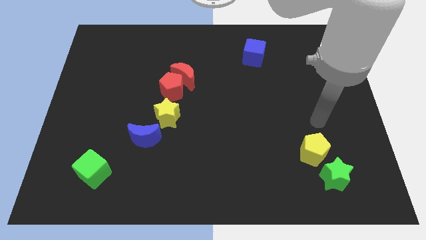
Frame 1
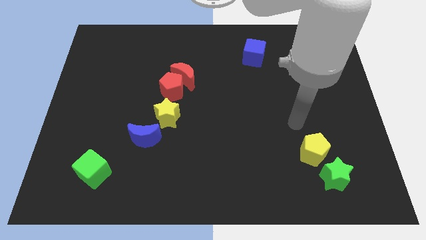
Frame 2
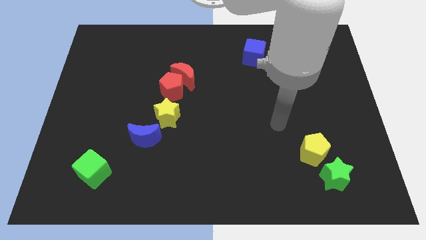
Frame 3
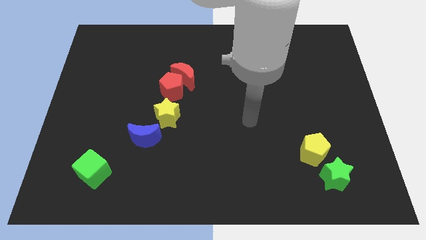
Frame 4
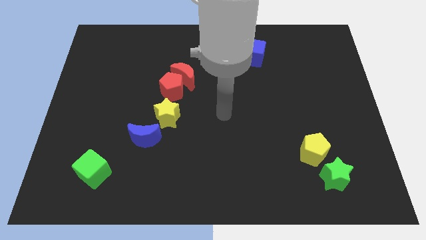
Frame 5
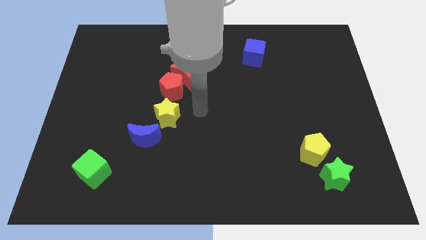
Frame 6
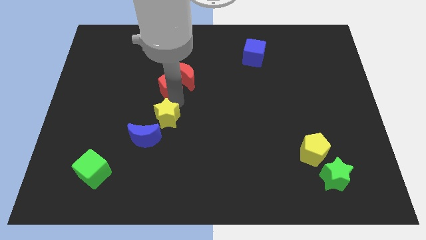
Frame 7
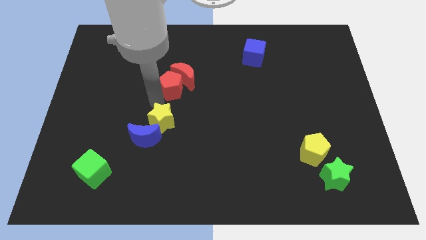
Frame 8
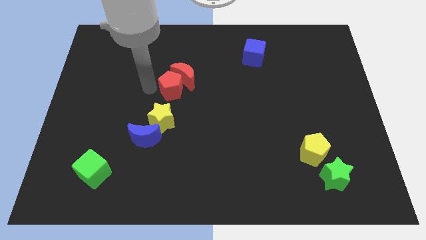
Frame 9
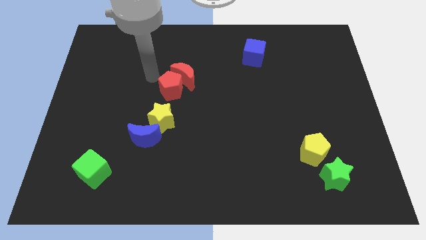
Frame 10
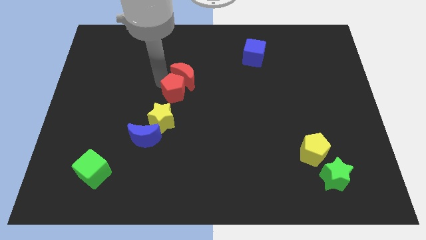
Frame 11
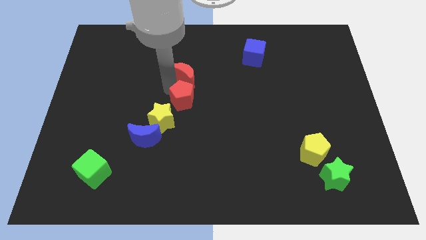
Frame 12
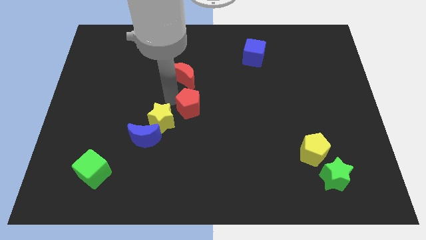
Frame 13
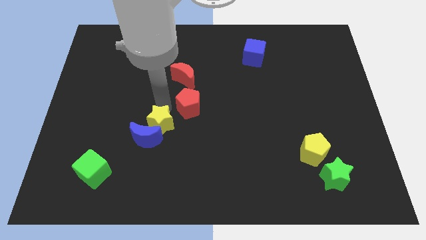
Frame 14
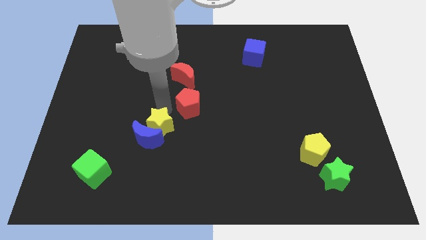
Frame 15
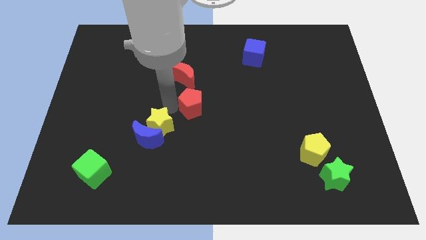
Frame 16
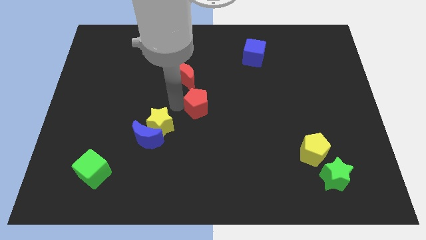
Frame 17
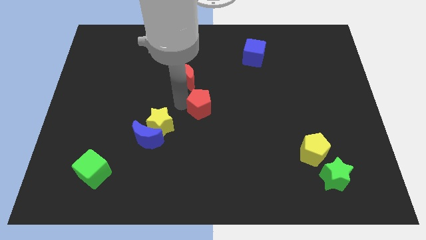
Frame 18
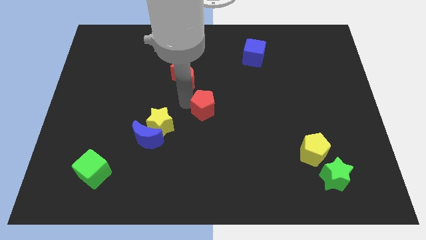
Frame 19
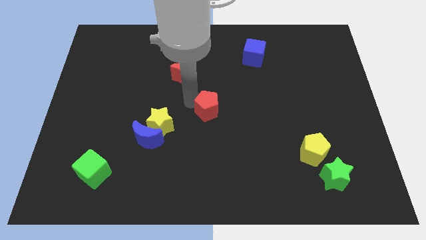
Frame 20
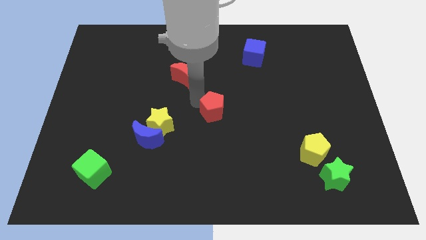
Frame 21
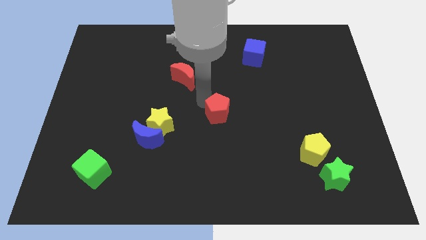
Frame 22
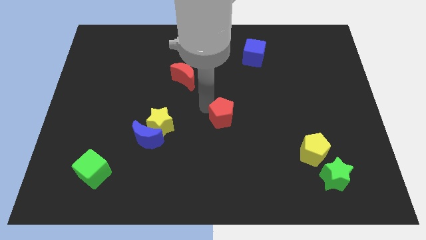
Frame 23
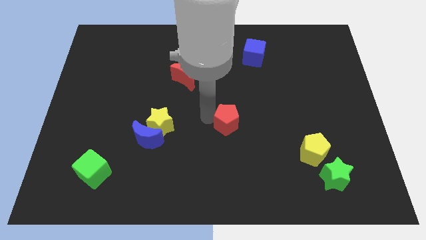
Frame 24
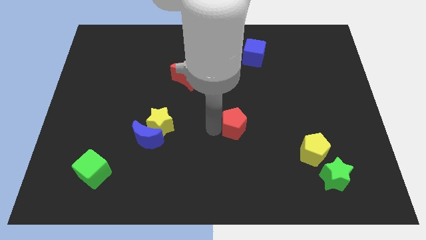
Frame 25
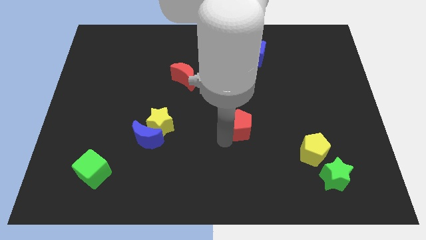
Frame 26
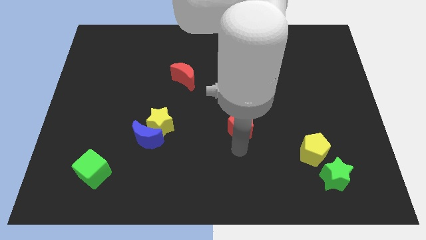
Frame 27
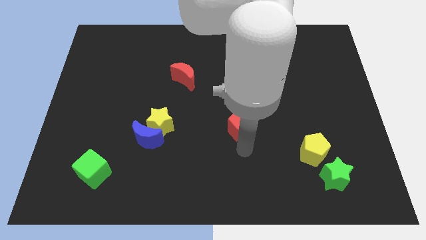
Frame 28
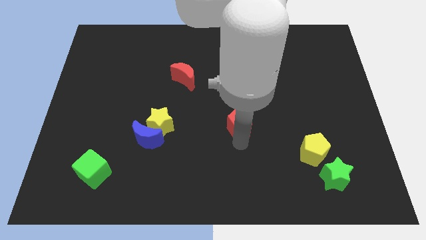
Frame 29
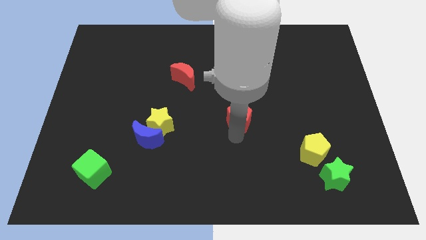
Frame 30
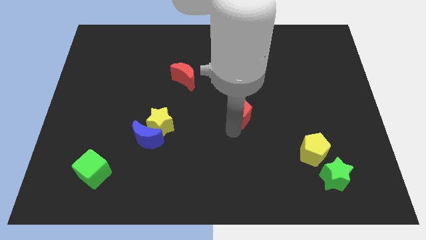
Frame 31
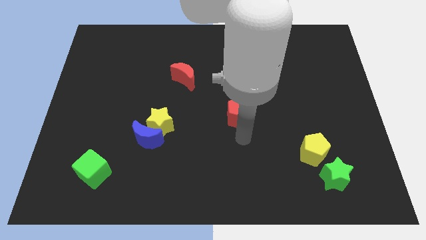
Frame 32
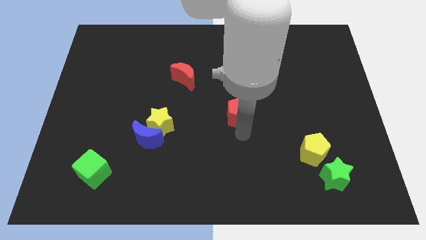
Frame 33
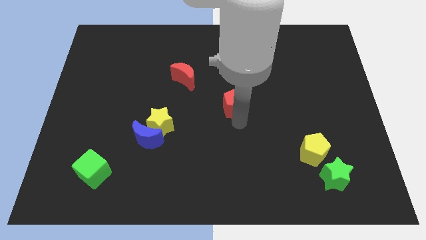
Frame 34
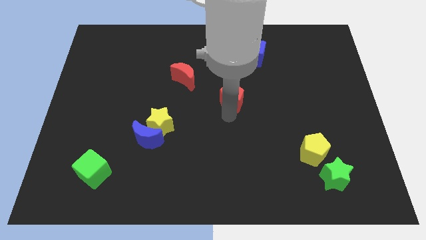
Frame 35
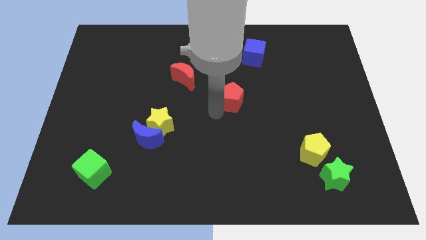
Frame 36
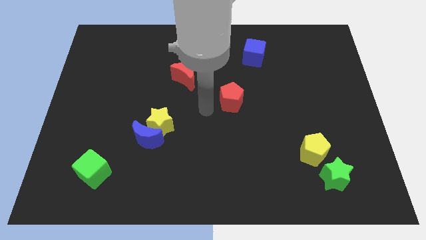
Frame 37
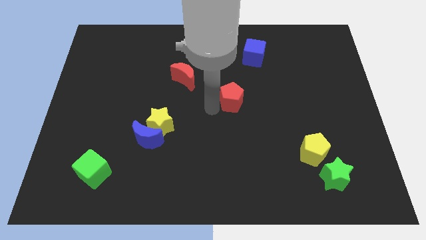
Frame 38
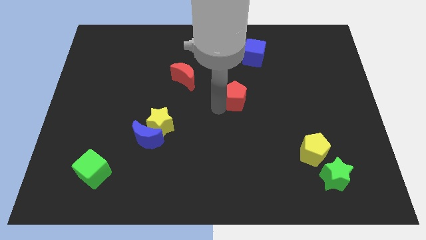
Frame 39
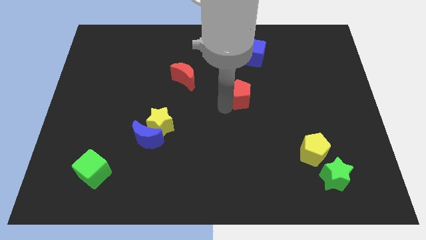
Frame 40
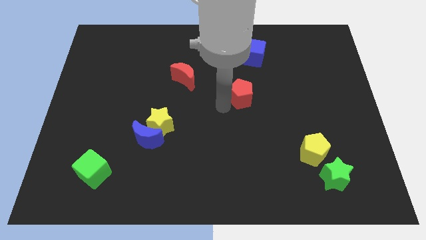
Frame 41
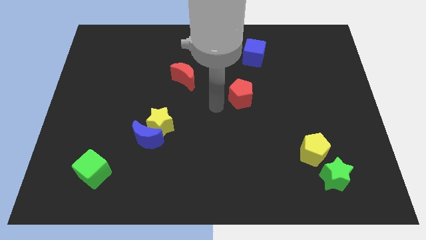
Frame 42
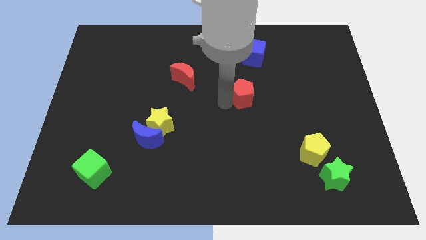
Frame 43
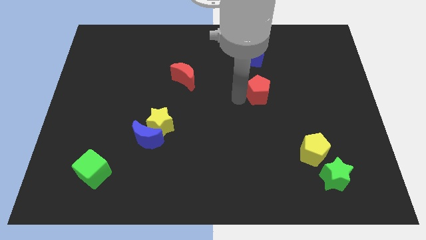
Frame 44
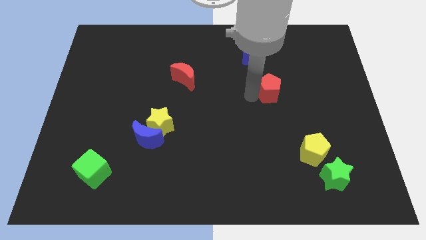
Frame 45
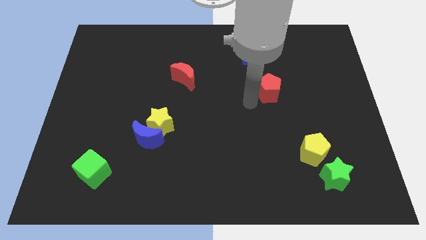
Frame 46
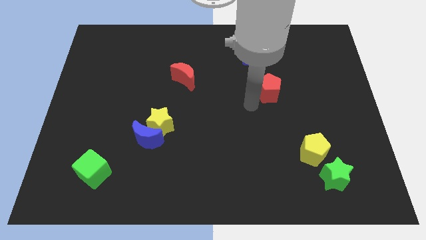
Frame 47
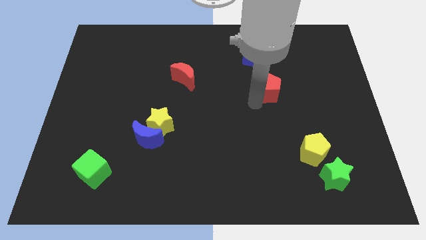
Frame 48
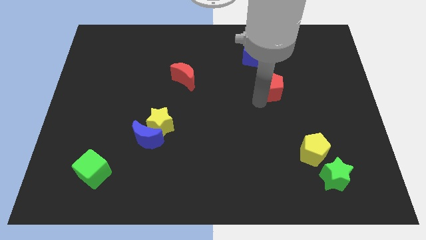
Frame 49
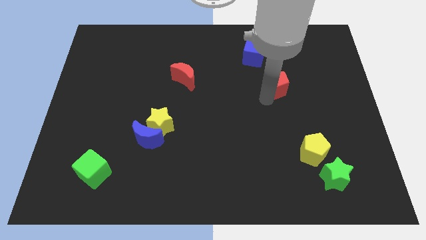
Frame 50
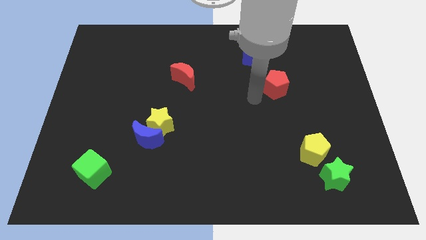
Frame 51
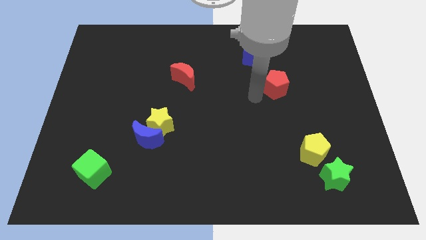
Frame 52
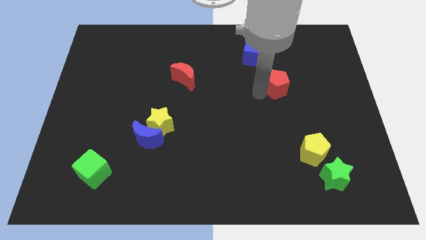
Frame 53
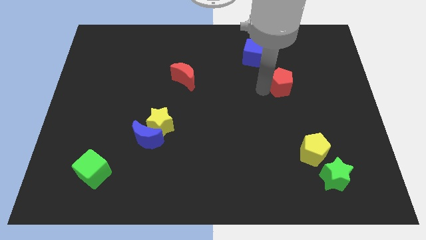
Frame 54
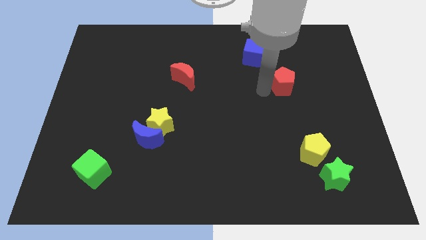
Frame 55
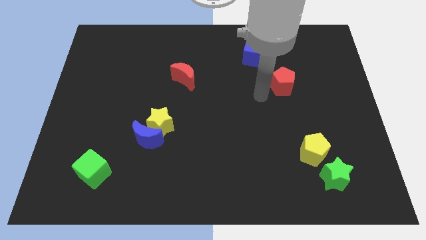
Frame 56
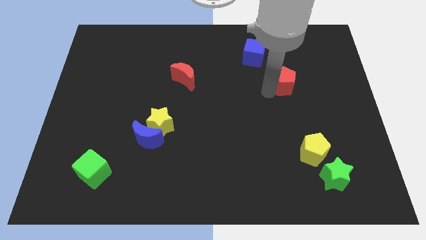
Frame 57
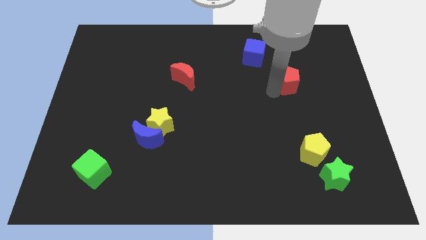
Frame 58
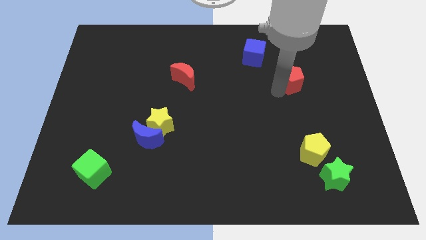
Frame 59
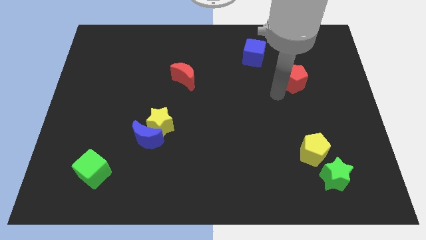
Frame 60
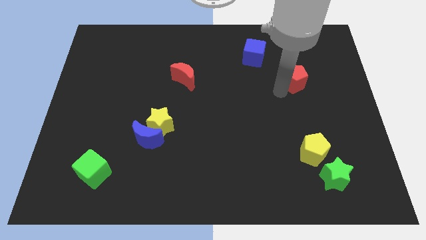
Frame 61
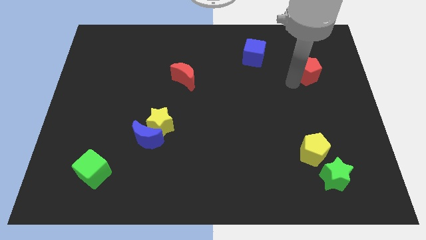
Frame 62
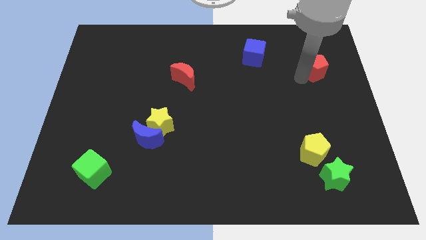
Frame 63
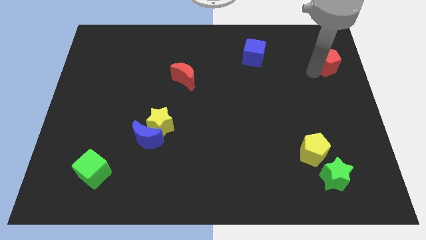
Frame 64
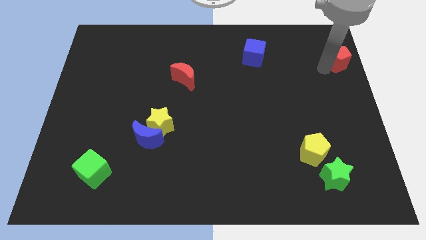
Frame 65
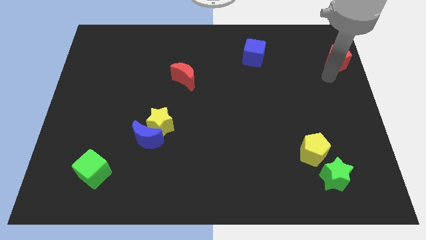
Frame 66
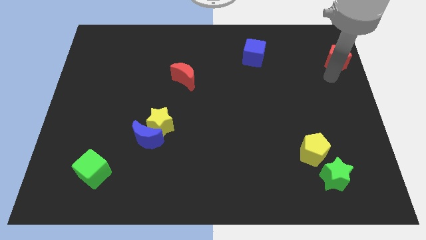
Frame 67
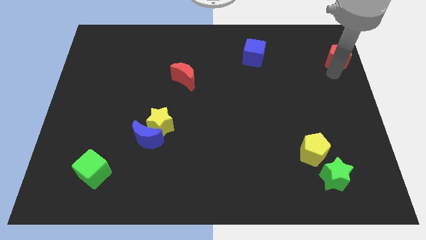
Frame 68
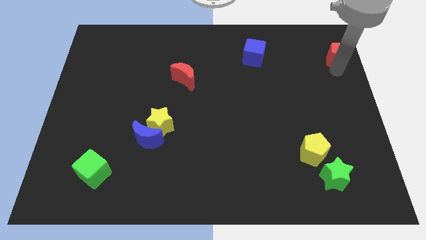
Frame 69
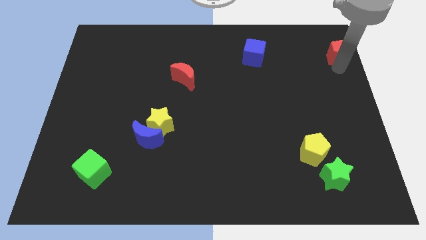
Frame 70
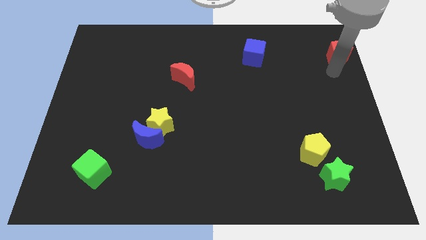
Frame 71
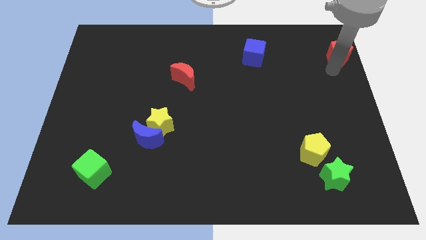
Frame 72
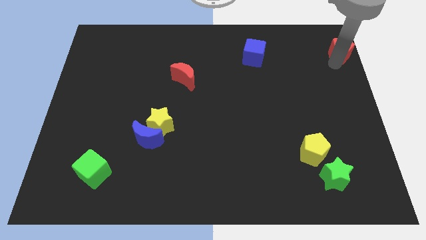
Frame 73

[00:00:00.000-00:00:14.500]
push the red pentagon to the top right corner

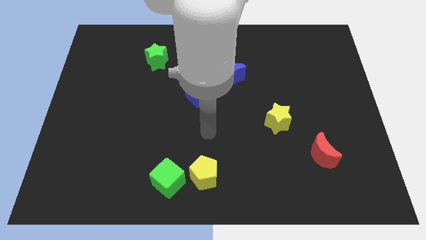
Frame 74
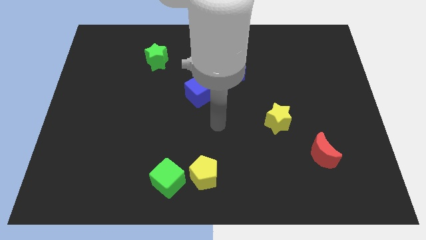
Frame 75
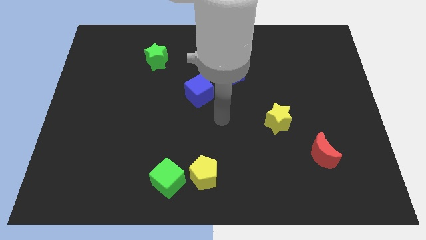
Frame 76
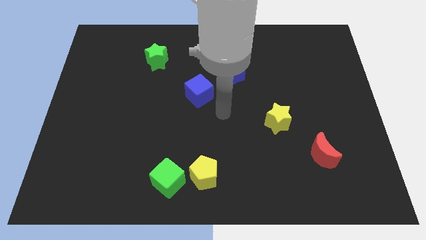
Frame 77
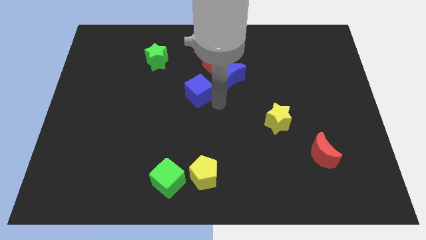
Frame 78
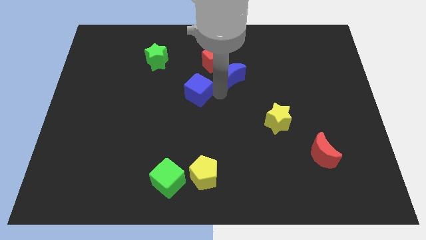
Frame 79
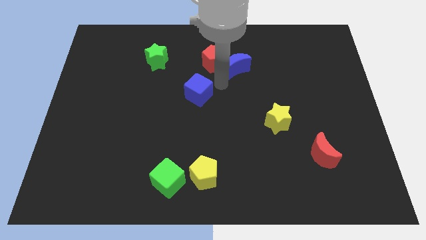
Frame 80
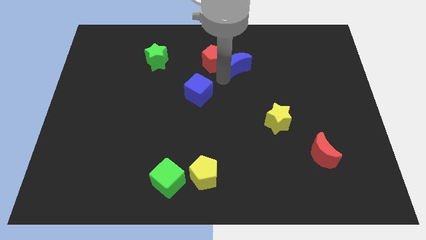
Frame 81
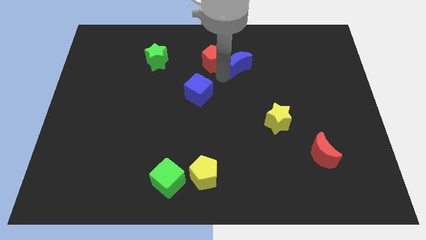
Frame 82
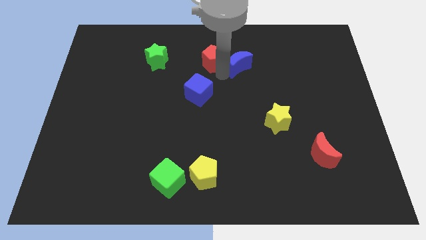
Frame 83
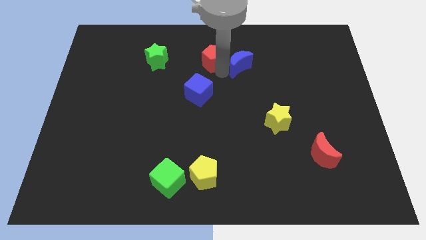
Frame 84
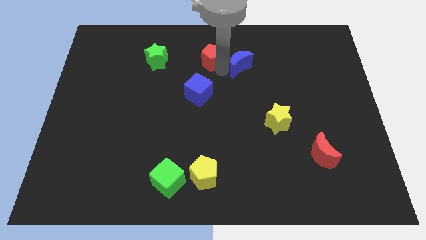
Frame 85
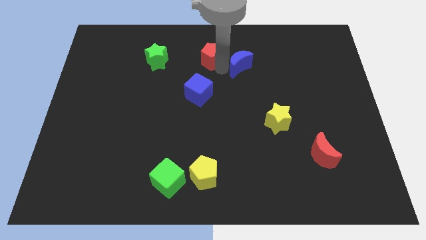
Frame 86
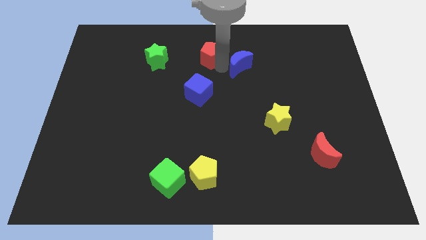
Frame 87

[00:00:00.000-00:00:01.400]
push the red pentagon to the towards your base
